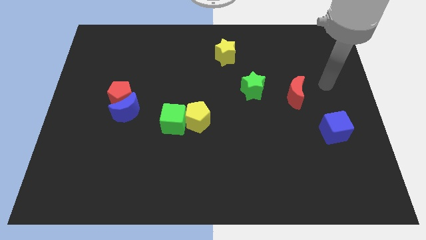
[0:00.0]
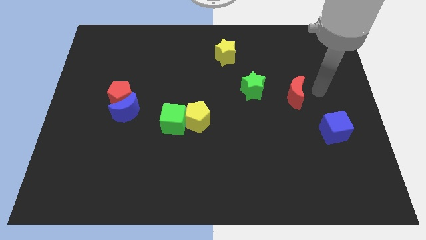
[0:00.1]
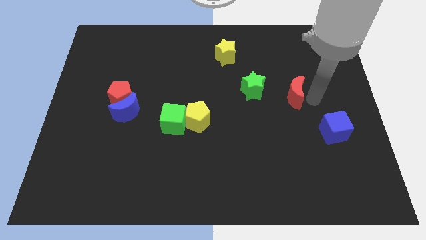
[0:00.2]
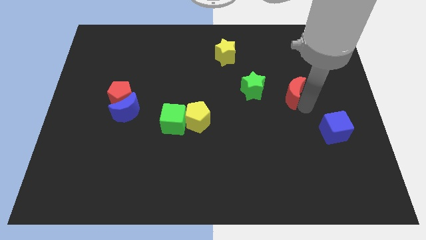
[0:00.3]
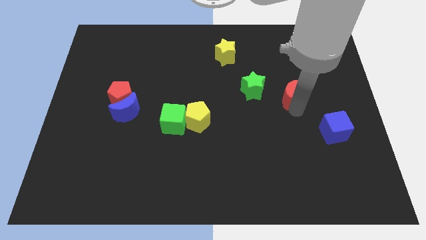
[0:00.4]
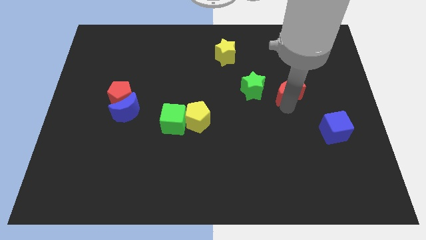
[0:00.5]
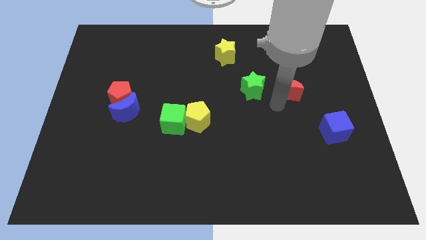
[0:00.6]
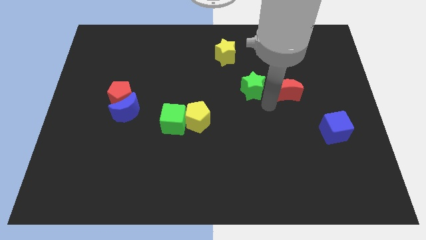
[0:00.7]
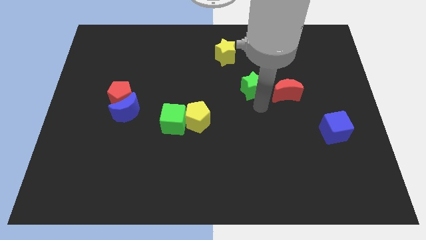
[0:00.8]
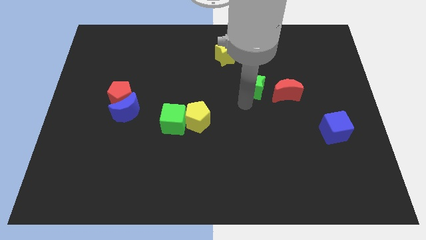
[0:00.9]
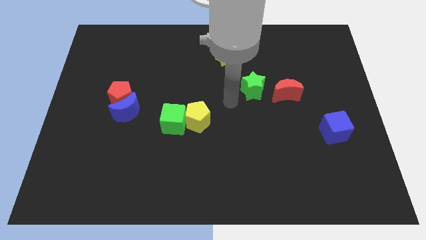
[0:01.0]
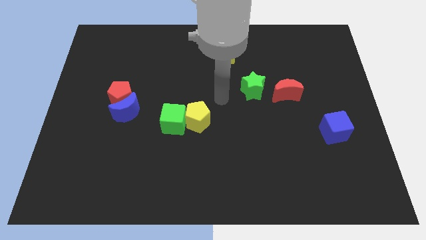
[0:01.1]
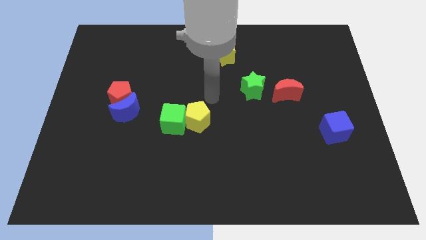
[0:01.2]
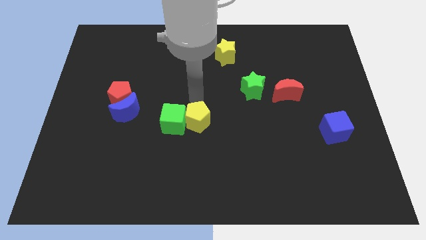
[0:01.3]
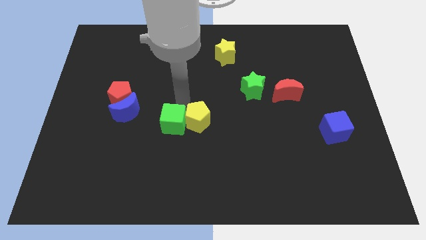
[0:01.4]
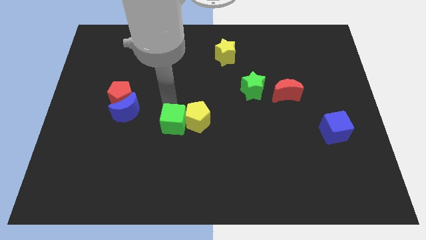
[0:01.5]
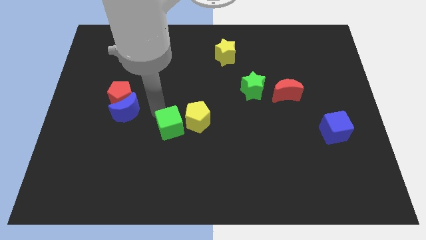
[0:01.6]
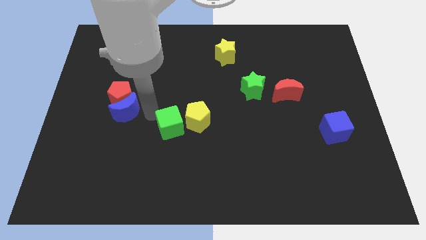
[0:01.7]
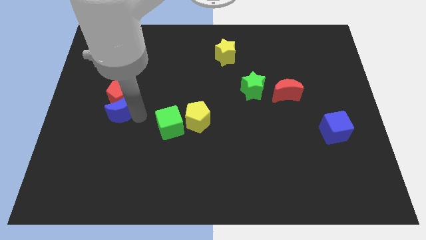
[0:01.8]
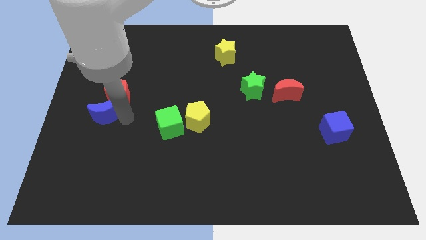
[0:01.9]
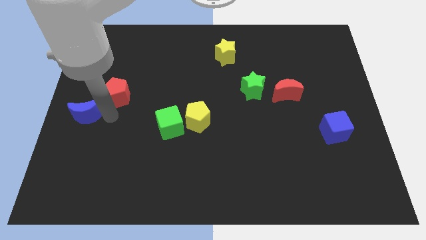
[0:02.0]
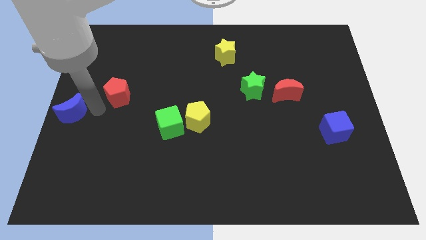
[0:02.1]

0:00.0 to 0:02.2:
separate the red pentagon from the blue moon

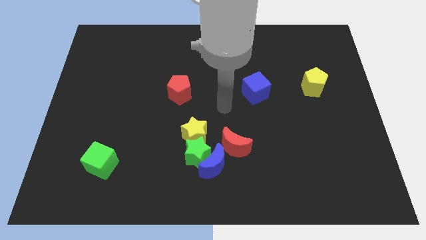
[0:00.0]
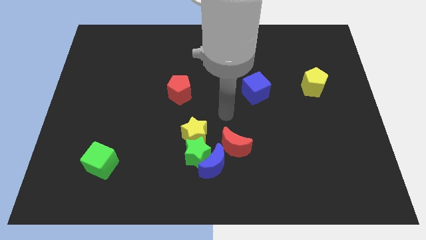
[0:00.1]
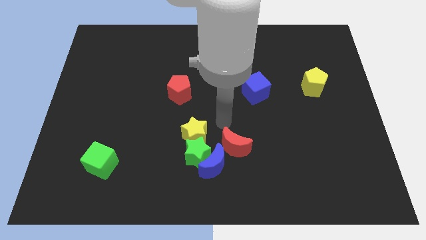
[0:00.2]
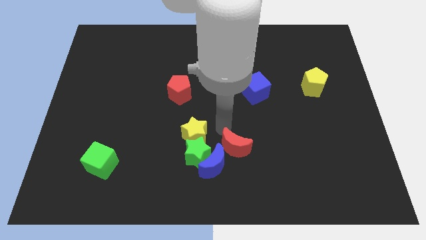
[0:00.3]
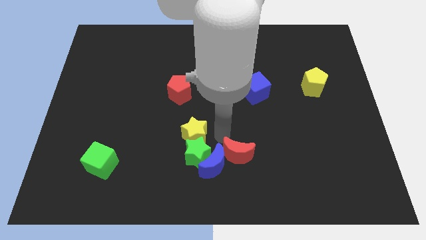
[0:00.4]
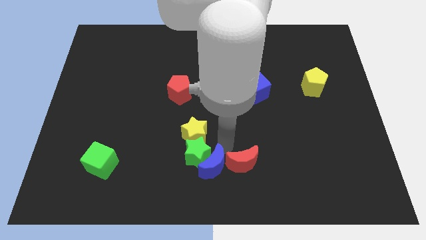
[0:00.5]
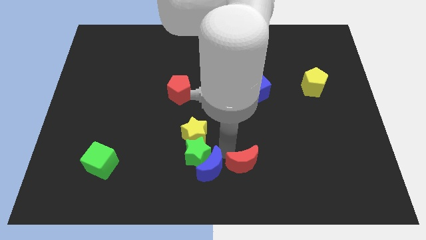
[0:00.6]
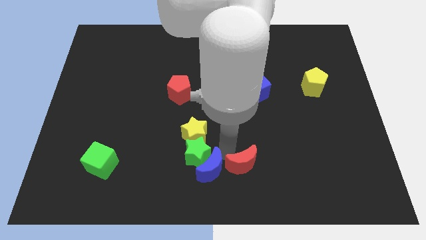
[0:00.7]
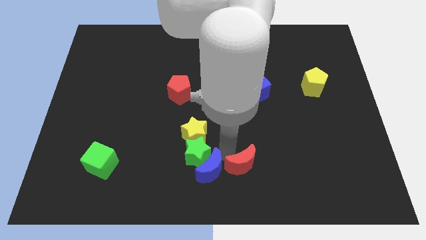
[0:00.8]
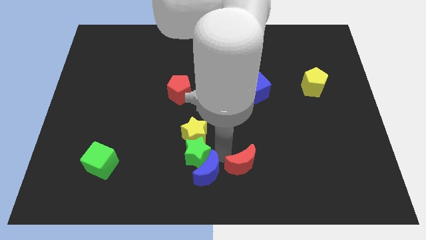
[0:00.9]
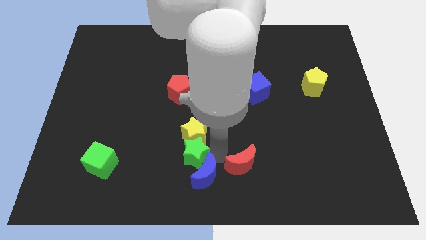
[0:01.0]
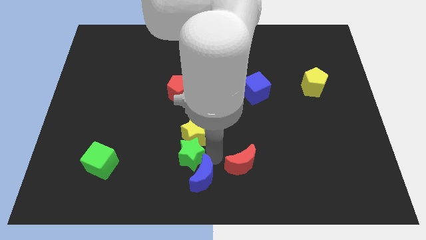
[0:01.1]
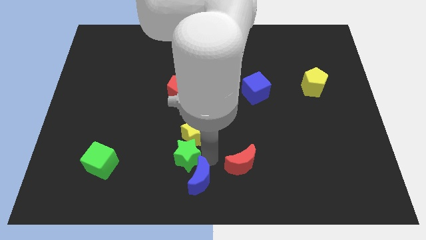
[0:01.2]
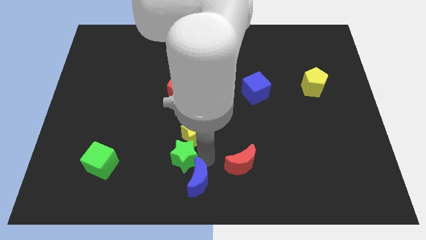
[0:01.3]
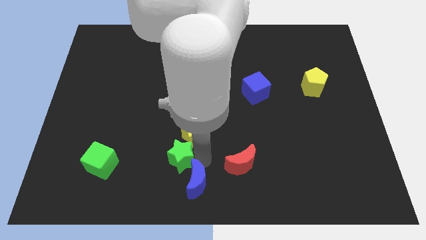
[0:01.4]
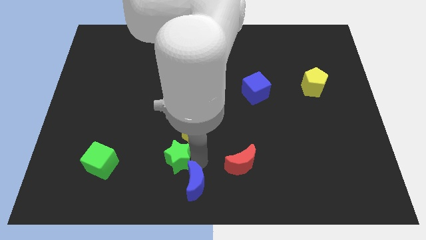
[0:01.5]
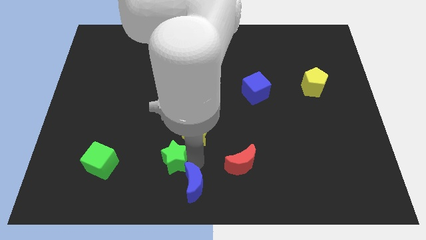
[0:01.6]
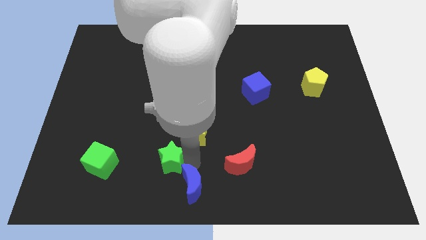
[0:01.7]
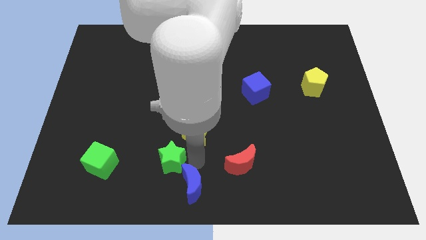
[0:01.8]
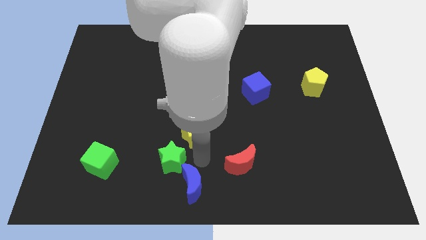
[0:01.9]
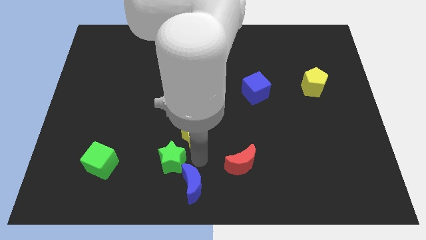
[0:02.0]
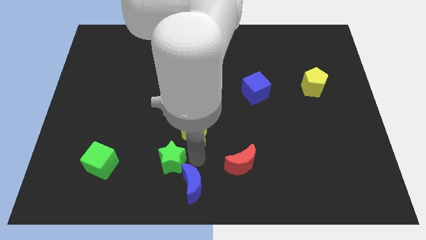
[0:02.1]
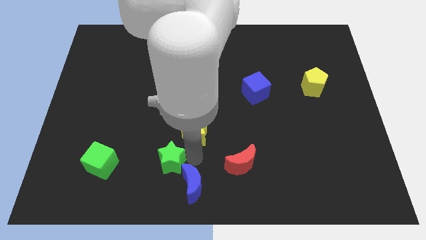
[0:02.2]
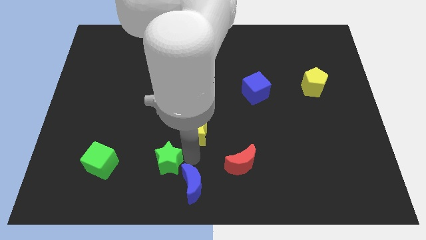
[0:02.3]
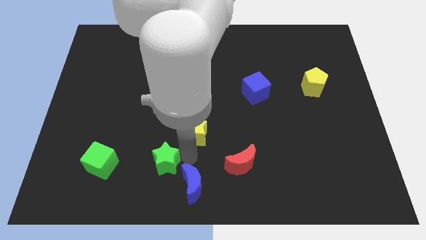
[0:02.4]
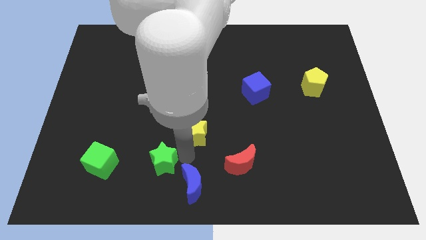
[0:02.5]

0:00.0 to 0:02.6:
move the green star away from the blue moon, yellow star, and red moon

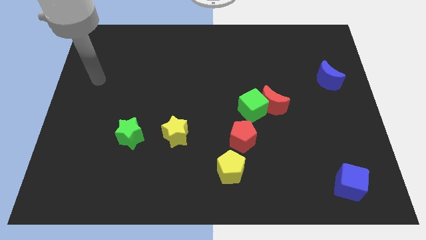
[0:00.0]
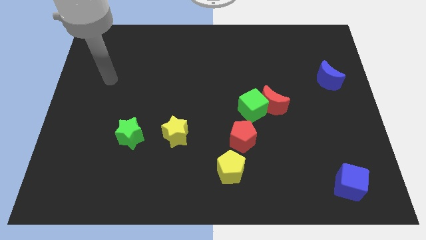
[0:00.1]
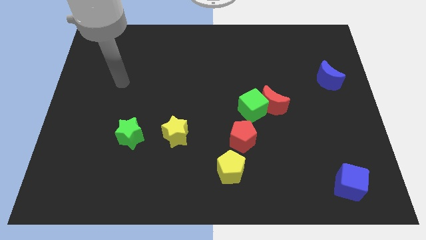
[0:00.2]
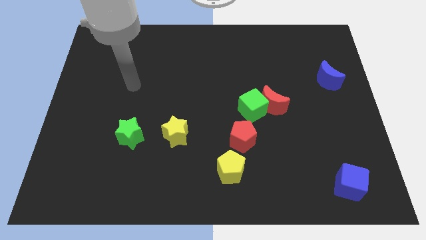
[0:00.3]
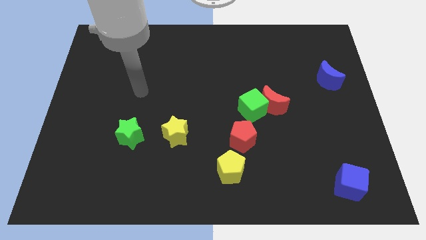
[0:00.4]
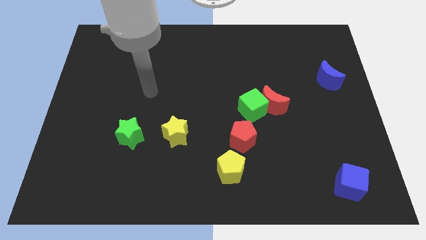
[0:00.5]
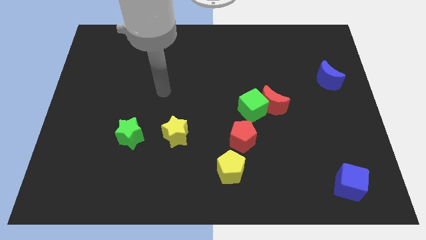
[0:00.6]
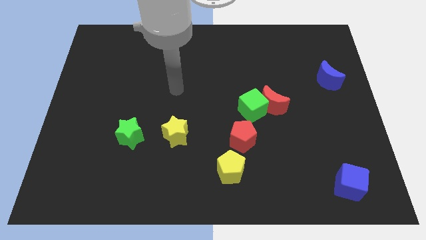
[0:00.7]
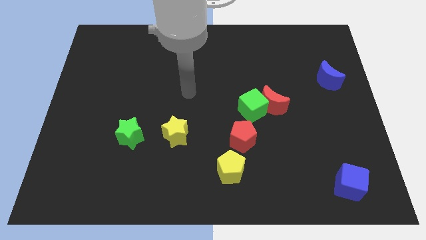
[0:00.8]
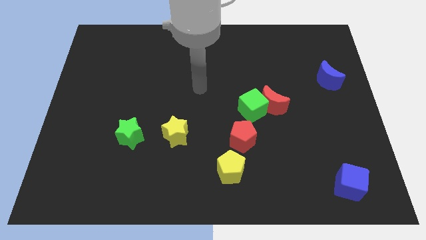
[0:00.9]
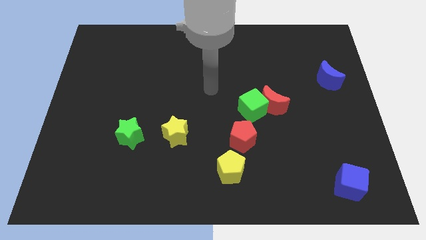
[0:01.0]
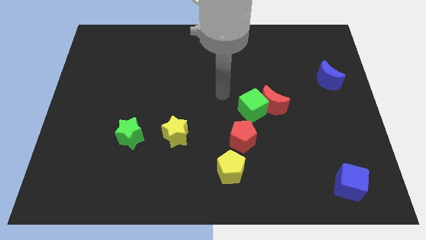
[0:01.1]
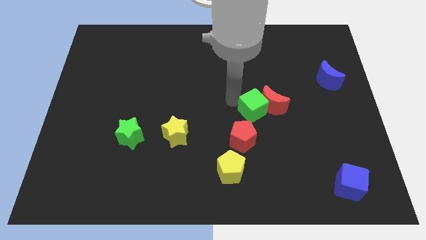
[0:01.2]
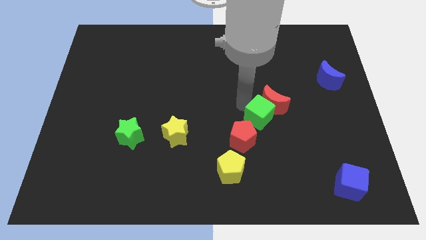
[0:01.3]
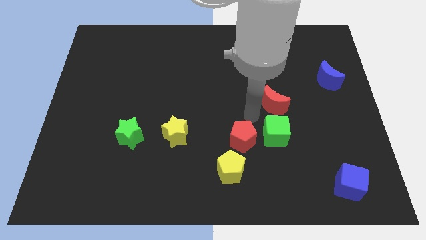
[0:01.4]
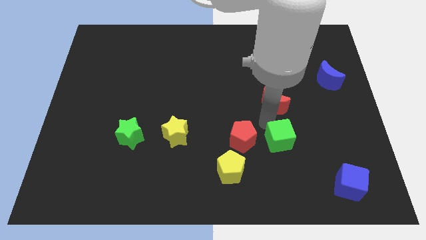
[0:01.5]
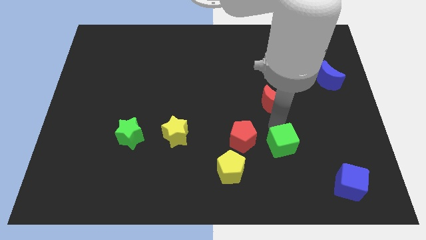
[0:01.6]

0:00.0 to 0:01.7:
move the red moon away from the green cube

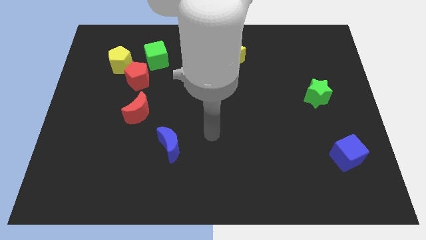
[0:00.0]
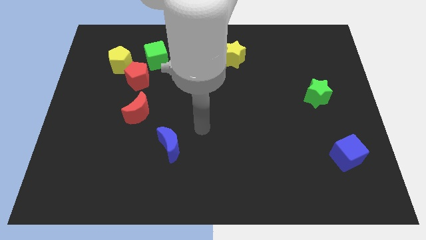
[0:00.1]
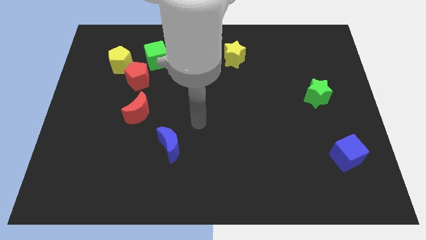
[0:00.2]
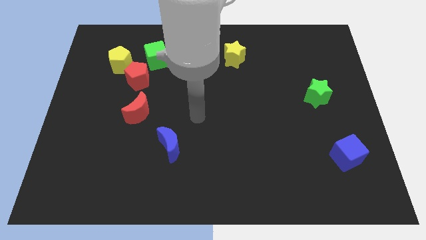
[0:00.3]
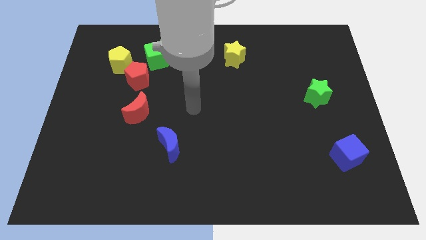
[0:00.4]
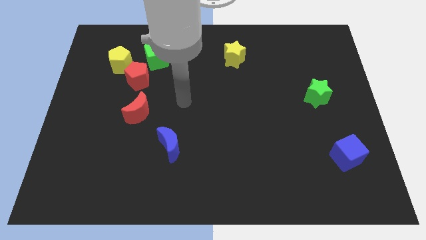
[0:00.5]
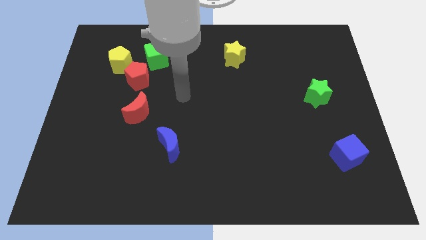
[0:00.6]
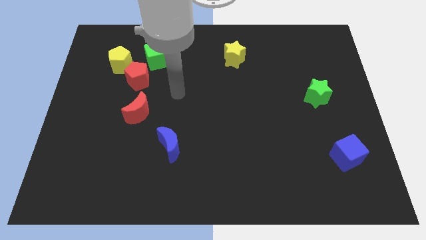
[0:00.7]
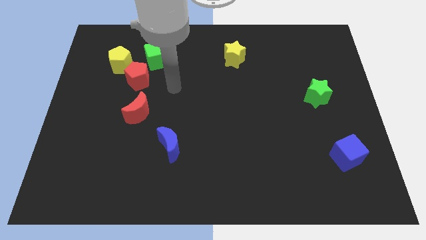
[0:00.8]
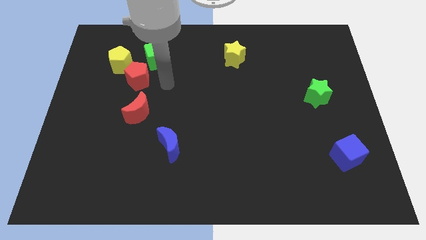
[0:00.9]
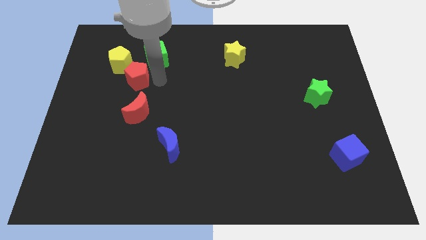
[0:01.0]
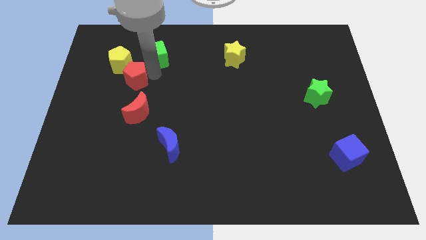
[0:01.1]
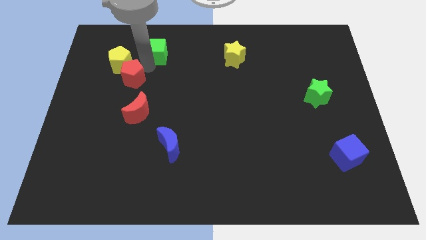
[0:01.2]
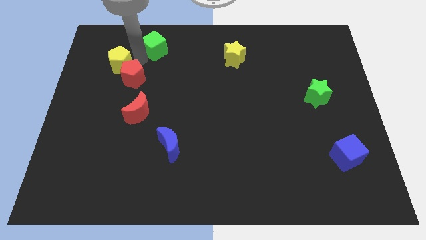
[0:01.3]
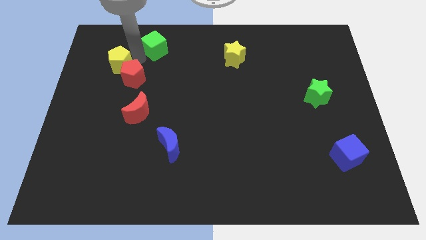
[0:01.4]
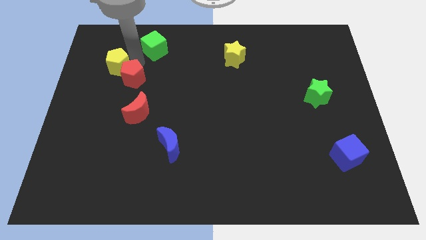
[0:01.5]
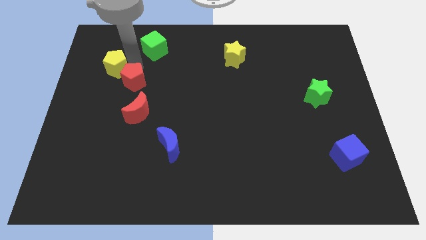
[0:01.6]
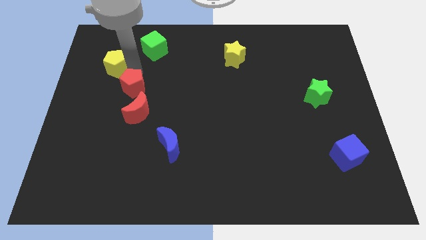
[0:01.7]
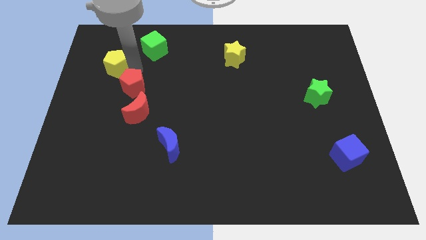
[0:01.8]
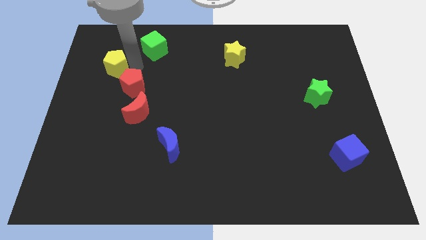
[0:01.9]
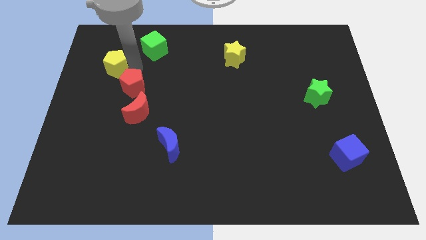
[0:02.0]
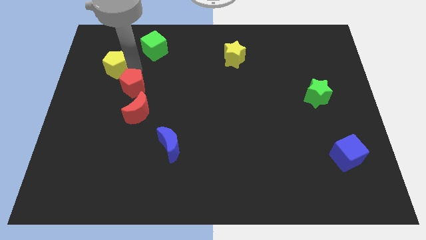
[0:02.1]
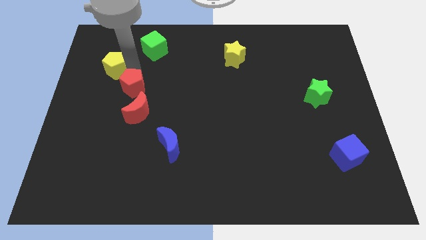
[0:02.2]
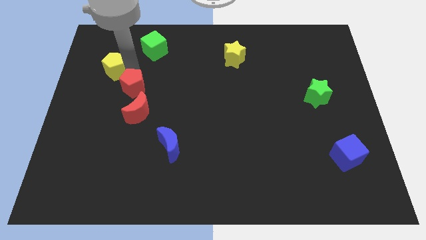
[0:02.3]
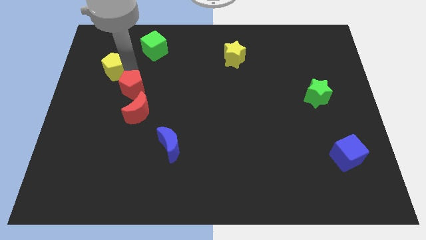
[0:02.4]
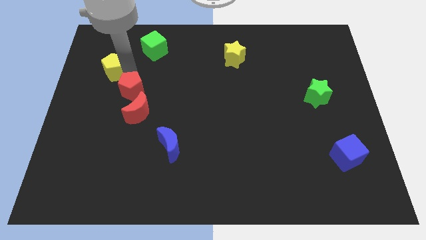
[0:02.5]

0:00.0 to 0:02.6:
pull the red pentagon apart from the yellow pentagon and green cube

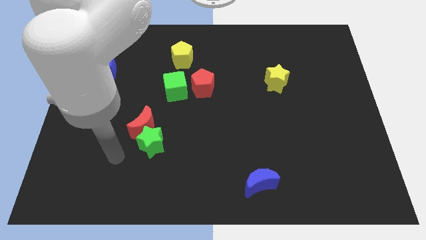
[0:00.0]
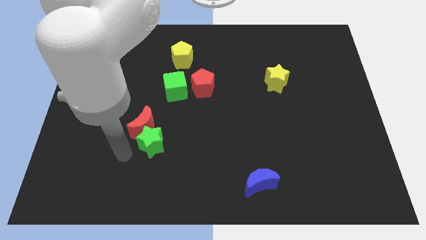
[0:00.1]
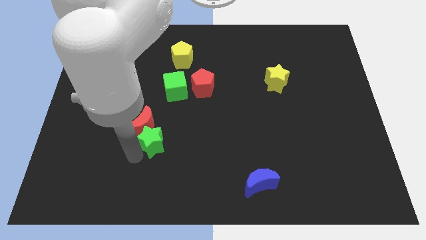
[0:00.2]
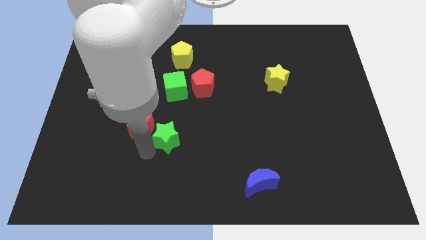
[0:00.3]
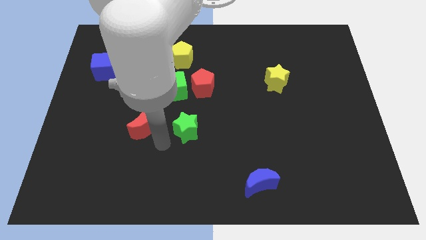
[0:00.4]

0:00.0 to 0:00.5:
move the red moon away from the green star
